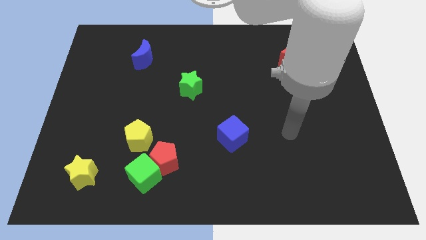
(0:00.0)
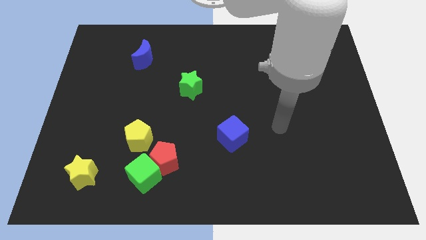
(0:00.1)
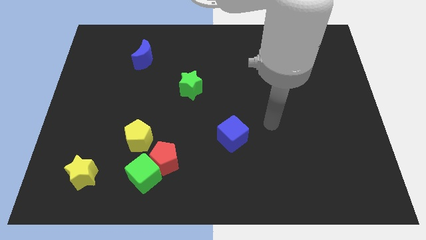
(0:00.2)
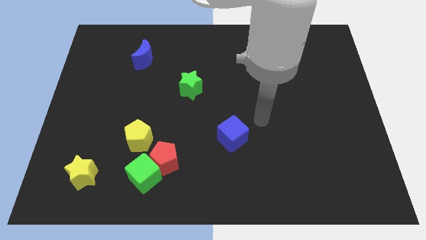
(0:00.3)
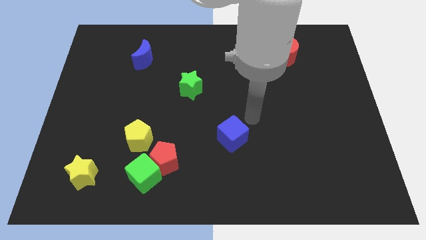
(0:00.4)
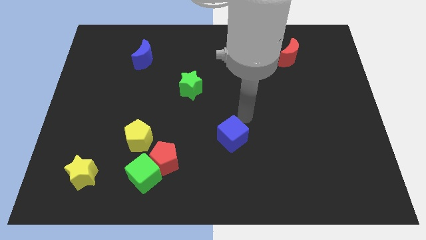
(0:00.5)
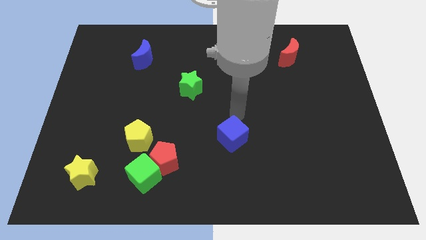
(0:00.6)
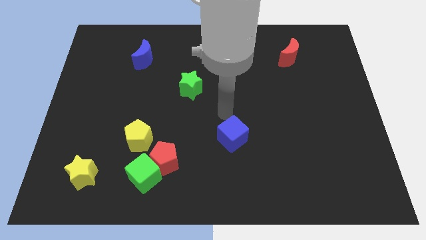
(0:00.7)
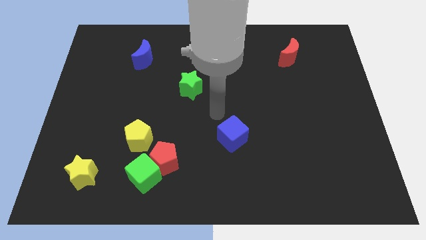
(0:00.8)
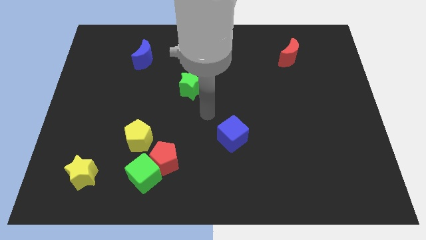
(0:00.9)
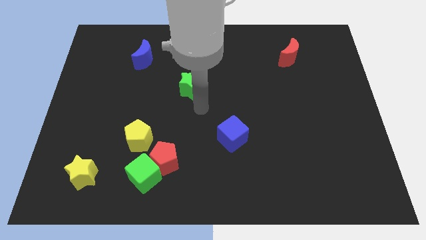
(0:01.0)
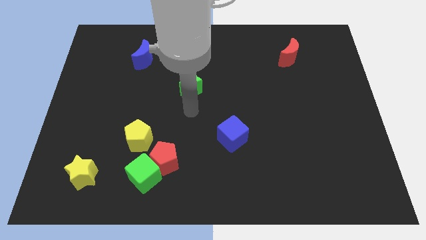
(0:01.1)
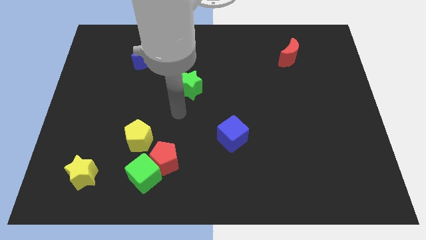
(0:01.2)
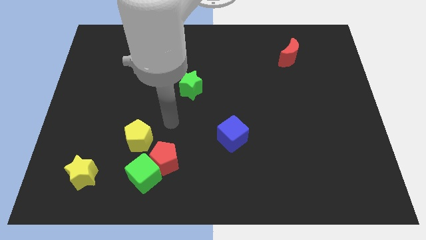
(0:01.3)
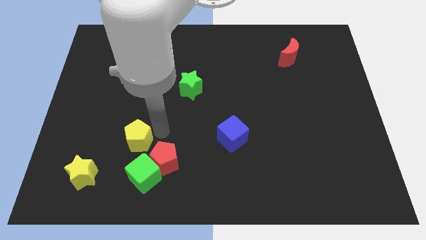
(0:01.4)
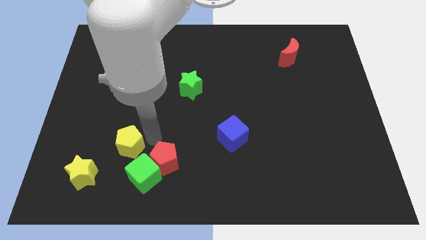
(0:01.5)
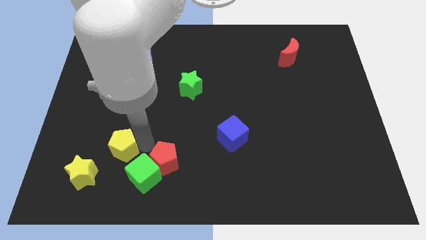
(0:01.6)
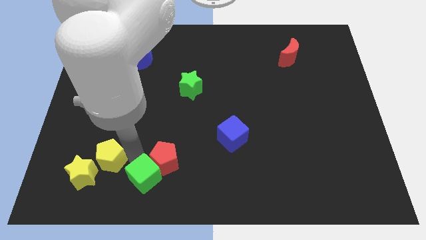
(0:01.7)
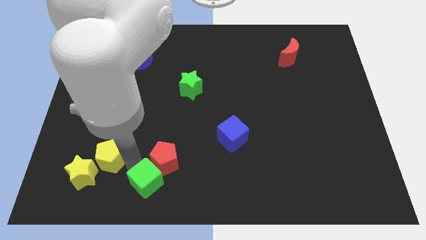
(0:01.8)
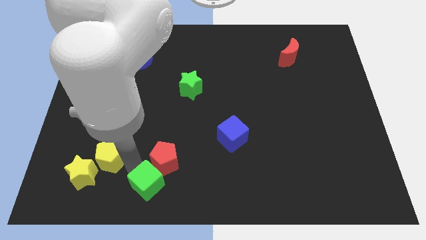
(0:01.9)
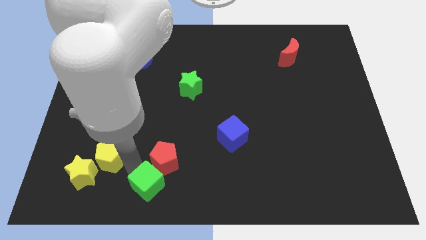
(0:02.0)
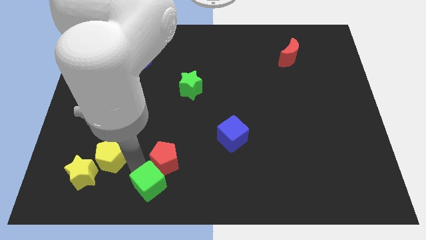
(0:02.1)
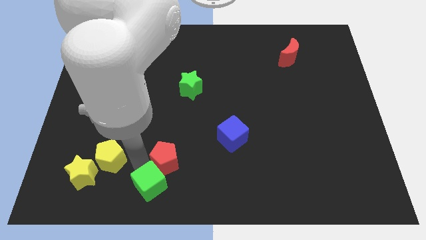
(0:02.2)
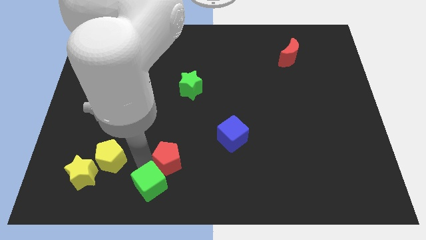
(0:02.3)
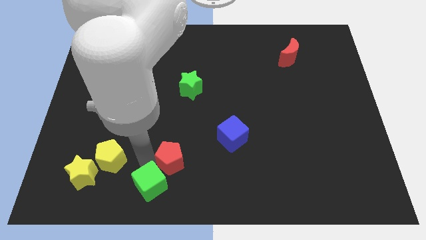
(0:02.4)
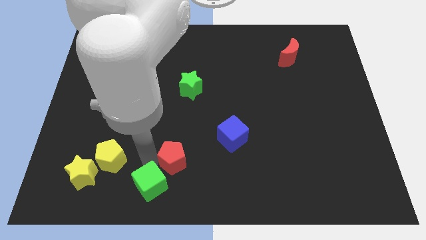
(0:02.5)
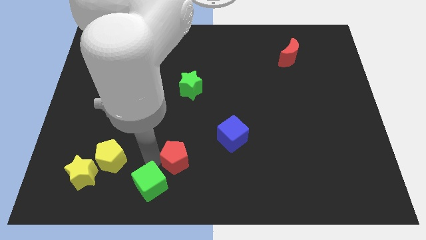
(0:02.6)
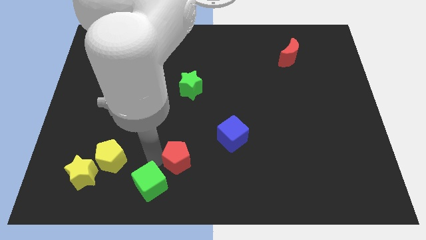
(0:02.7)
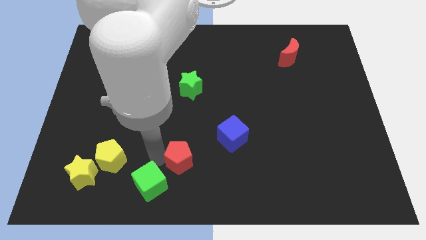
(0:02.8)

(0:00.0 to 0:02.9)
move the red pentagon away from the green cube and yellow pentagon

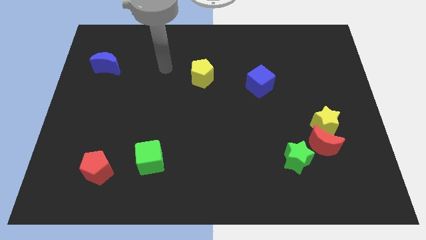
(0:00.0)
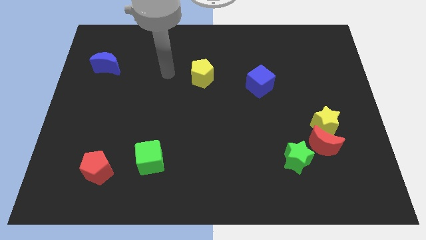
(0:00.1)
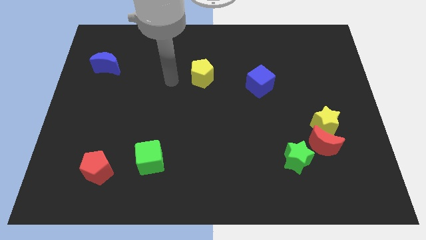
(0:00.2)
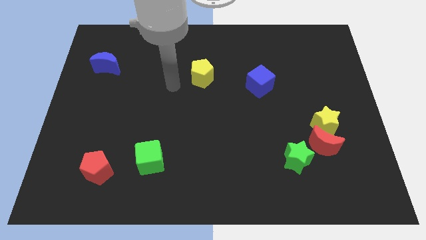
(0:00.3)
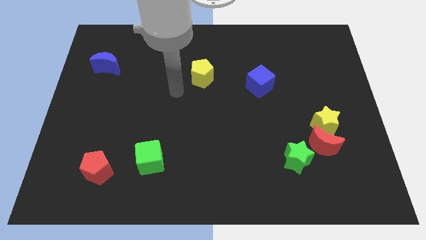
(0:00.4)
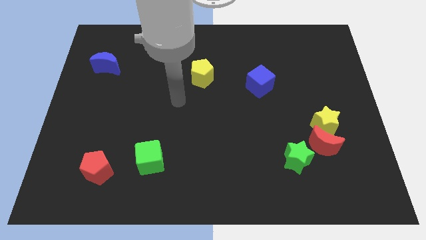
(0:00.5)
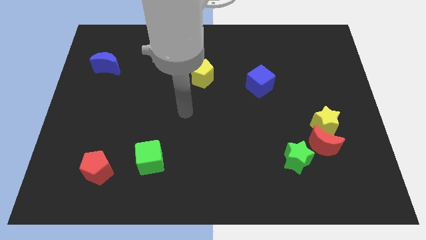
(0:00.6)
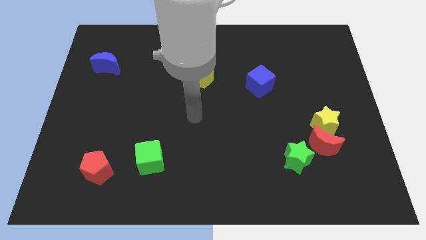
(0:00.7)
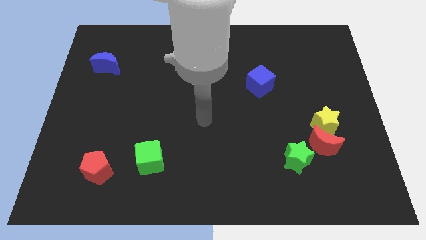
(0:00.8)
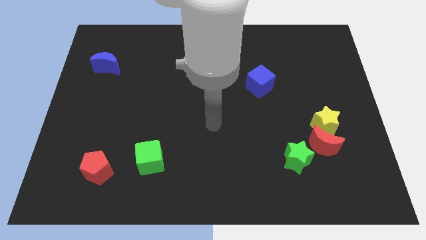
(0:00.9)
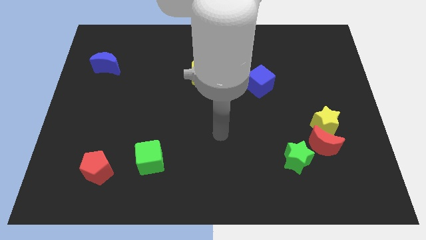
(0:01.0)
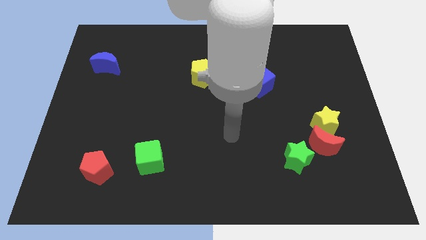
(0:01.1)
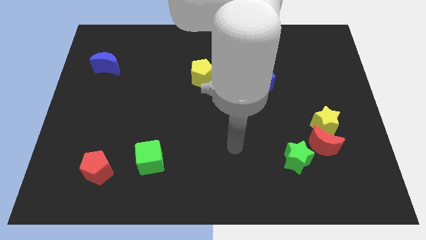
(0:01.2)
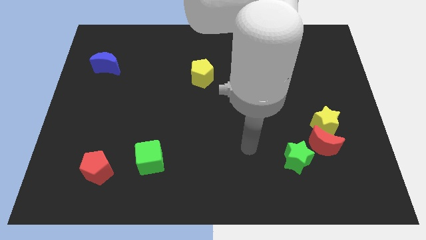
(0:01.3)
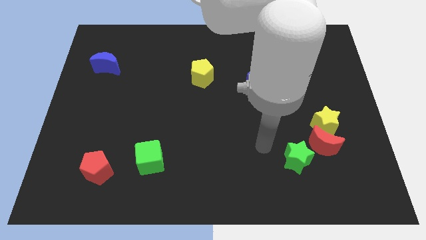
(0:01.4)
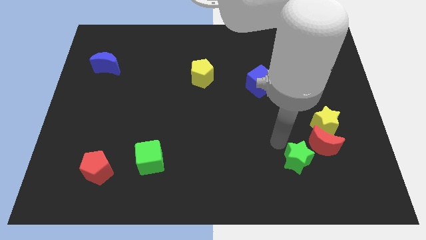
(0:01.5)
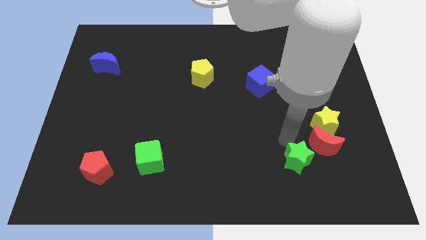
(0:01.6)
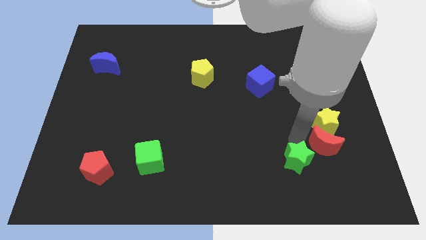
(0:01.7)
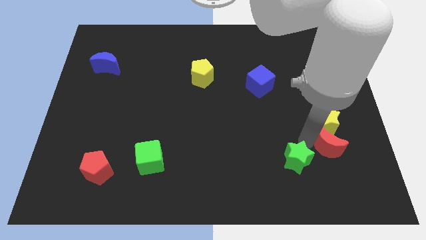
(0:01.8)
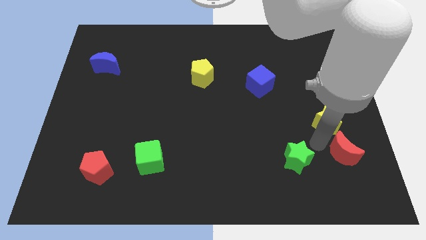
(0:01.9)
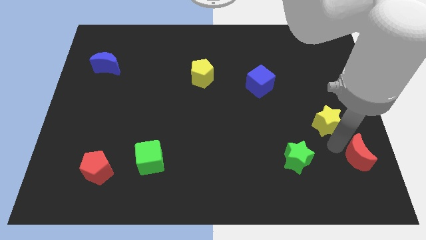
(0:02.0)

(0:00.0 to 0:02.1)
separate the yellow star from the red moon

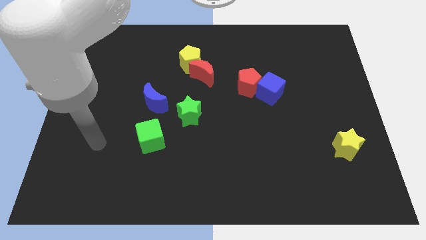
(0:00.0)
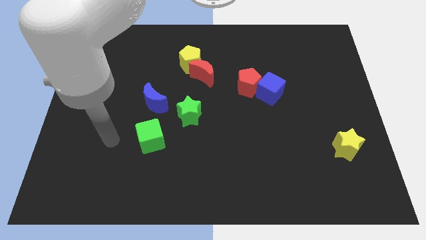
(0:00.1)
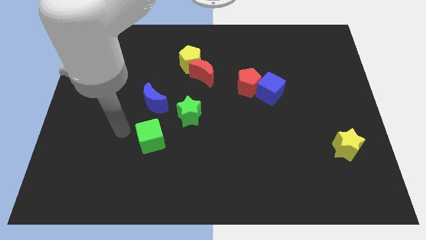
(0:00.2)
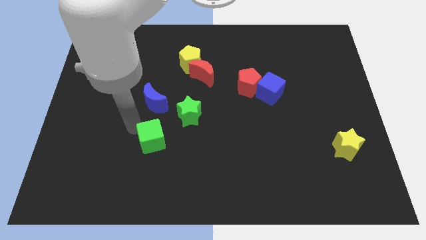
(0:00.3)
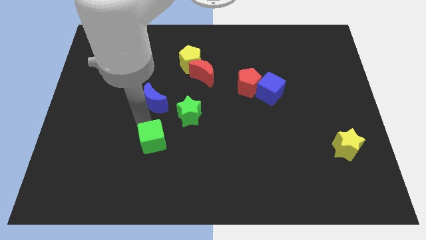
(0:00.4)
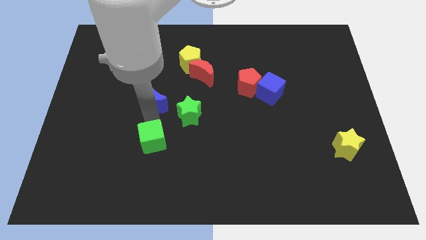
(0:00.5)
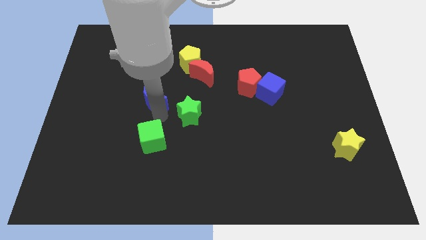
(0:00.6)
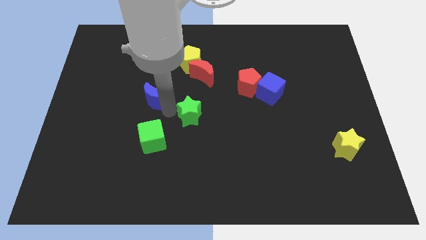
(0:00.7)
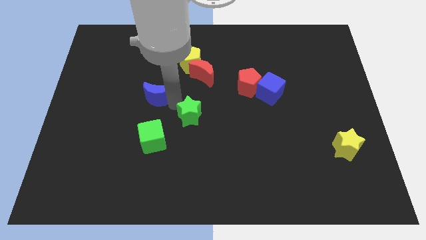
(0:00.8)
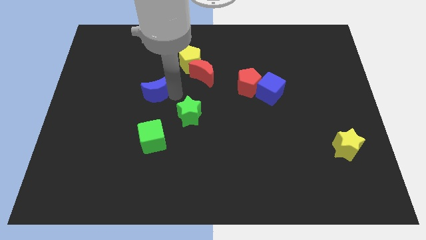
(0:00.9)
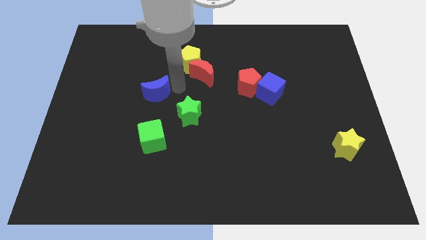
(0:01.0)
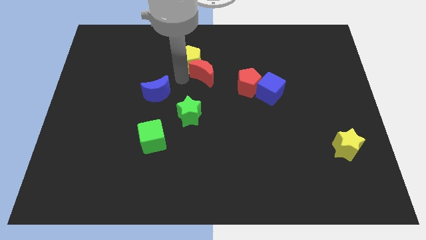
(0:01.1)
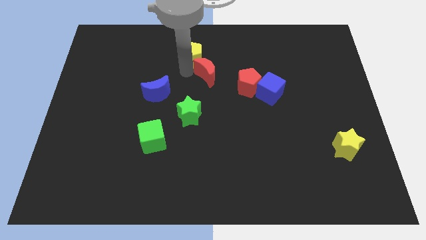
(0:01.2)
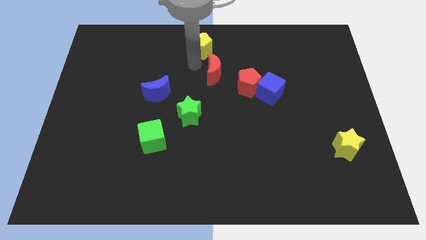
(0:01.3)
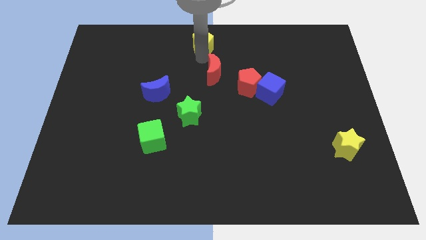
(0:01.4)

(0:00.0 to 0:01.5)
move the red moon away from the yellow pentagon

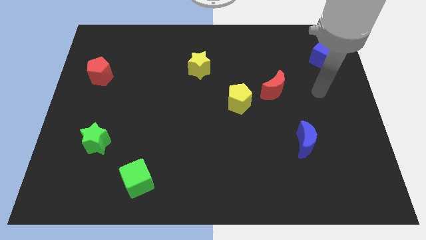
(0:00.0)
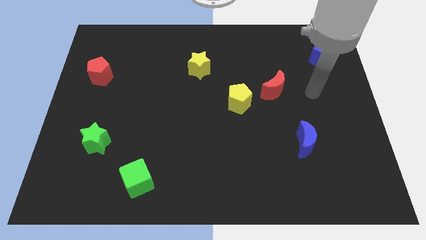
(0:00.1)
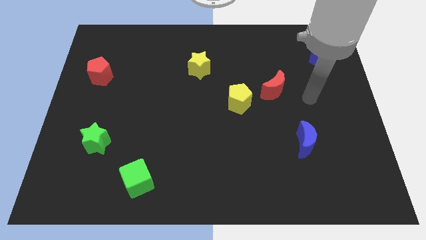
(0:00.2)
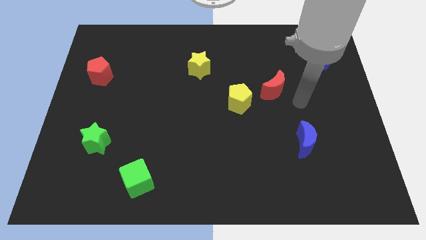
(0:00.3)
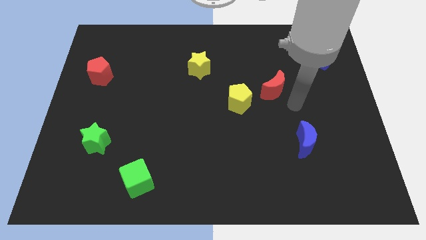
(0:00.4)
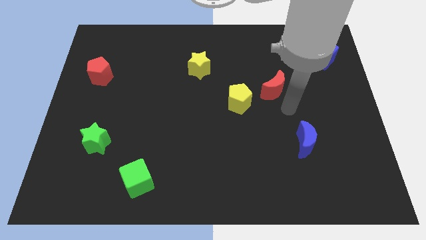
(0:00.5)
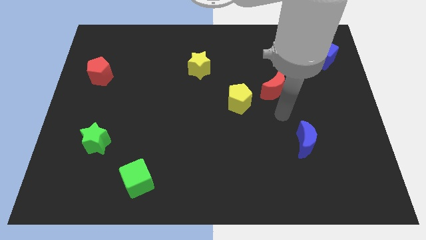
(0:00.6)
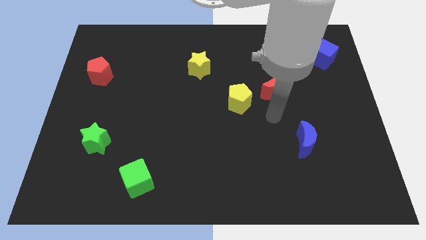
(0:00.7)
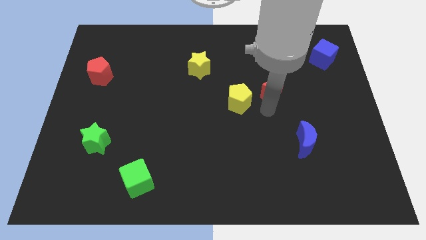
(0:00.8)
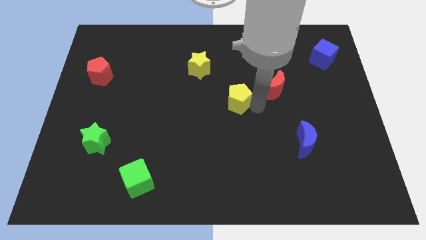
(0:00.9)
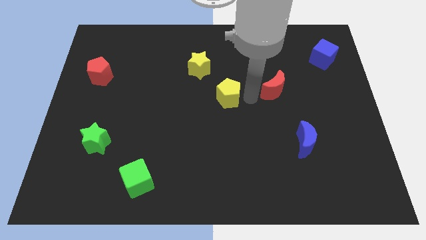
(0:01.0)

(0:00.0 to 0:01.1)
pull the red moon apart from the yellow pentagon

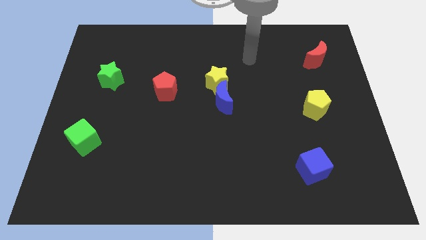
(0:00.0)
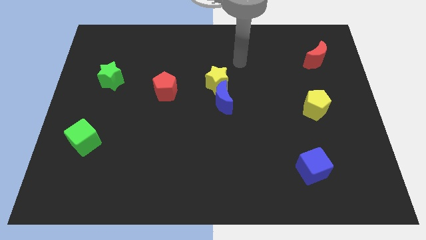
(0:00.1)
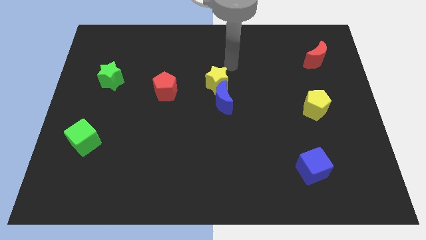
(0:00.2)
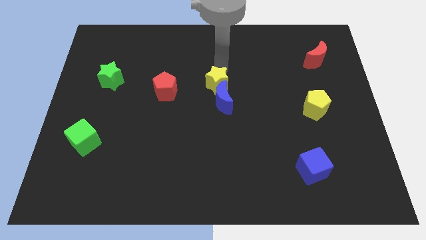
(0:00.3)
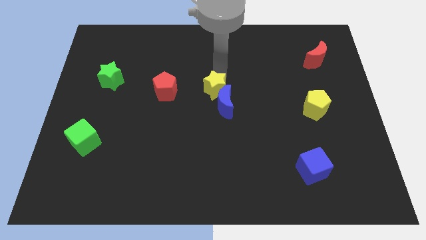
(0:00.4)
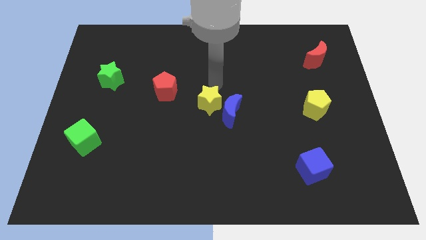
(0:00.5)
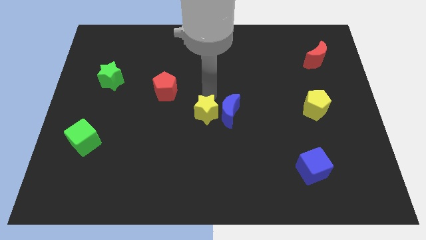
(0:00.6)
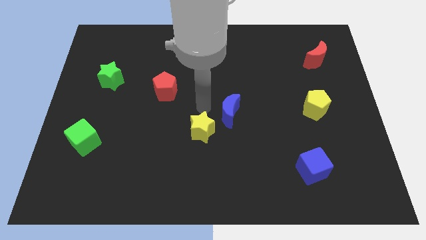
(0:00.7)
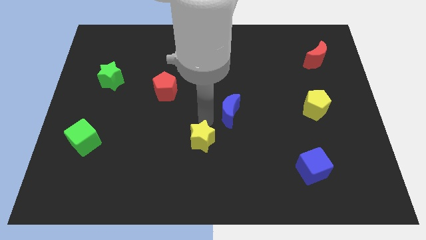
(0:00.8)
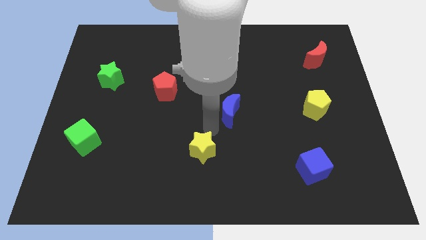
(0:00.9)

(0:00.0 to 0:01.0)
pull the blue moon apart from the yellow star

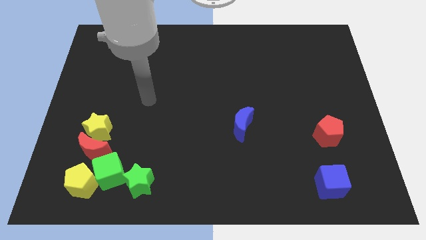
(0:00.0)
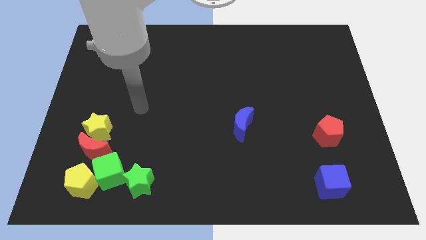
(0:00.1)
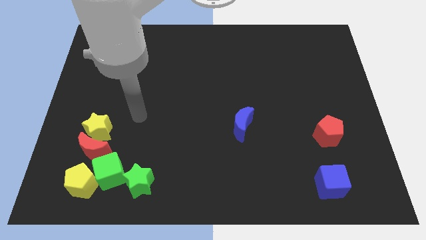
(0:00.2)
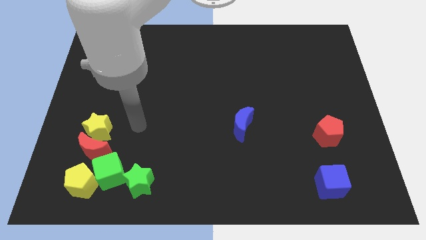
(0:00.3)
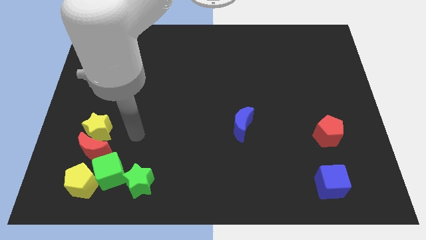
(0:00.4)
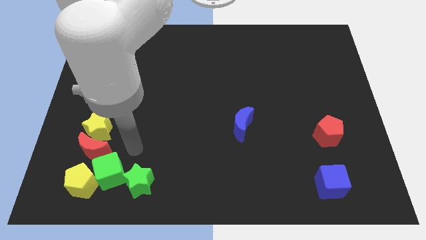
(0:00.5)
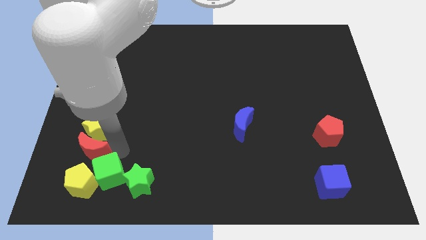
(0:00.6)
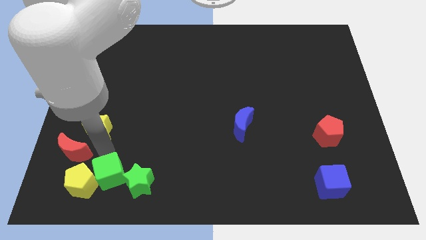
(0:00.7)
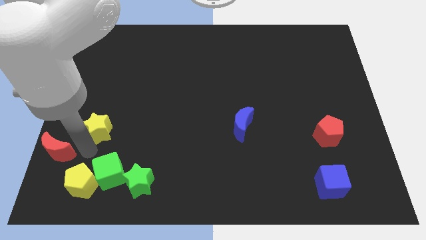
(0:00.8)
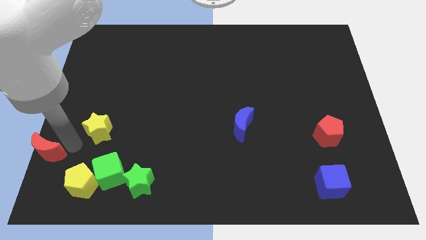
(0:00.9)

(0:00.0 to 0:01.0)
move the yellow star away from the red moon
